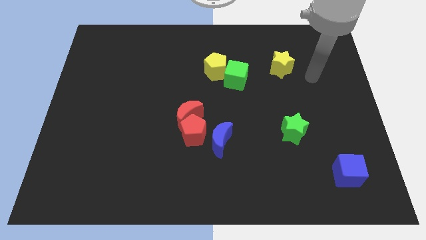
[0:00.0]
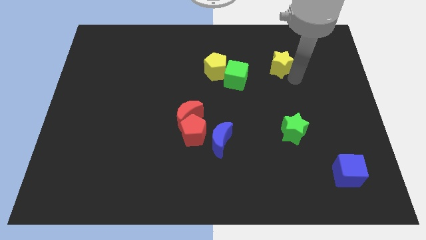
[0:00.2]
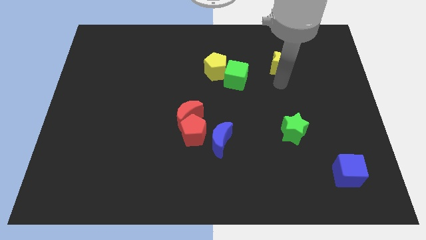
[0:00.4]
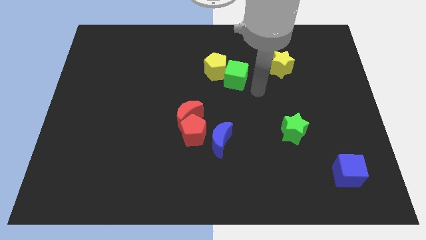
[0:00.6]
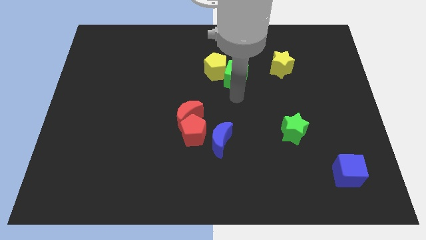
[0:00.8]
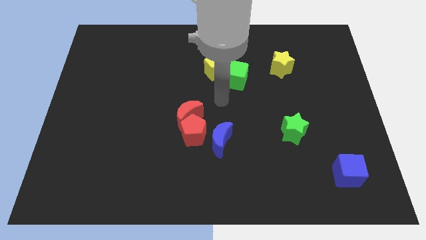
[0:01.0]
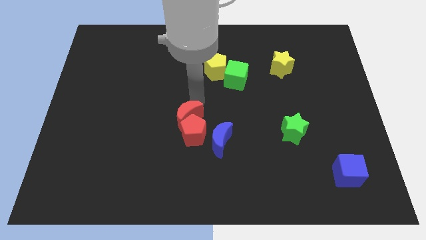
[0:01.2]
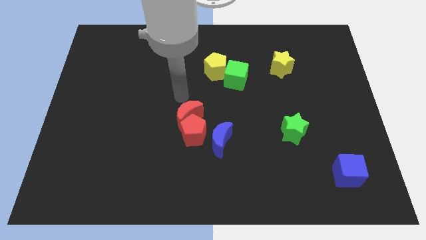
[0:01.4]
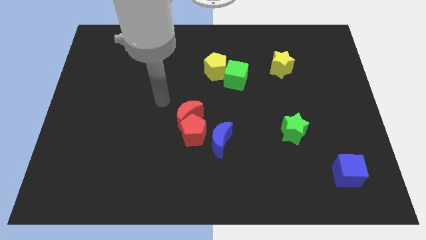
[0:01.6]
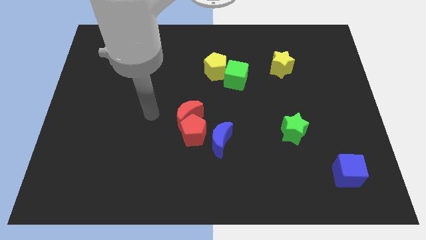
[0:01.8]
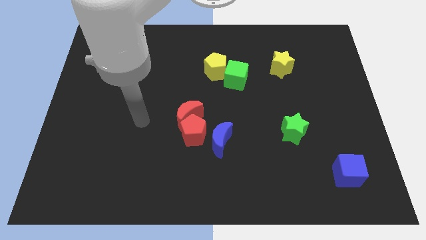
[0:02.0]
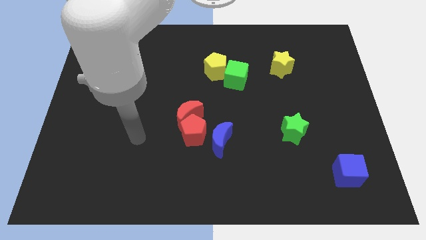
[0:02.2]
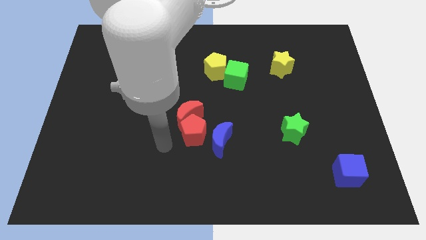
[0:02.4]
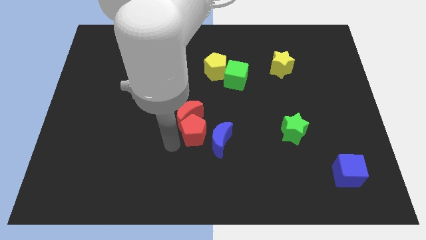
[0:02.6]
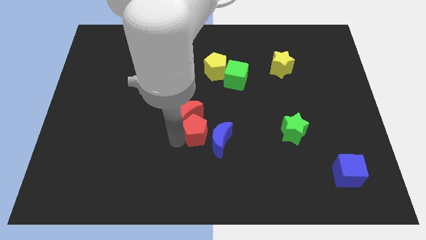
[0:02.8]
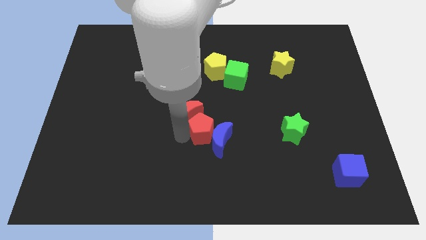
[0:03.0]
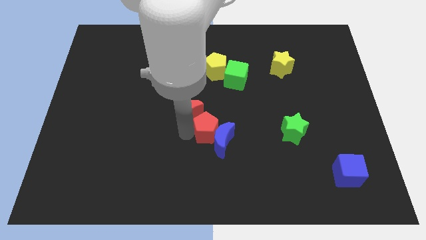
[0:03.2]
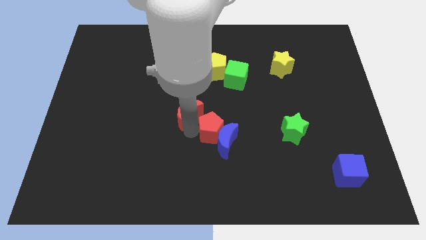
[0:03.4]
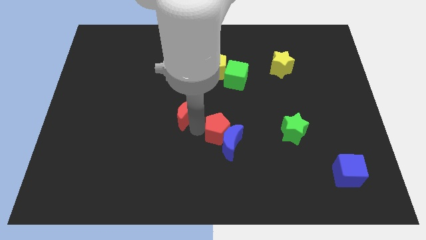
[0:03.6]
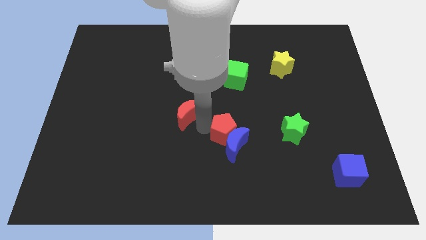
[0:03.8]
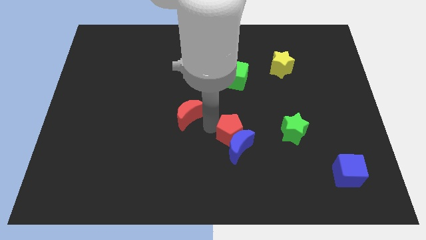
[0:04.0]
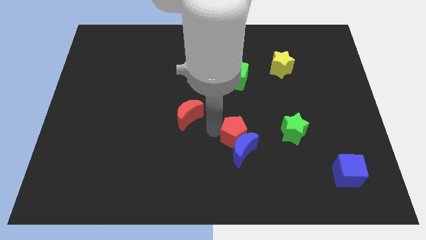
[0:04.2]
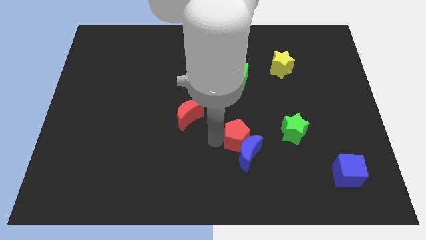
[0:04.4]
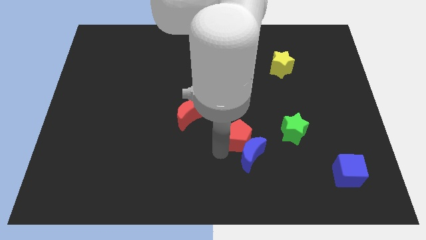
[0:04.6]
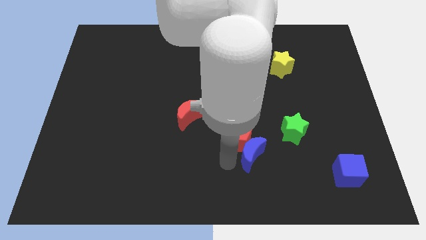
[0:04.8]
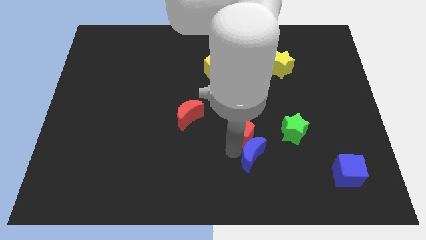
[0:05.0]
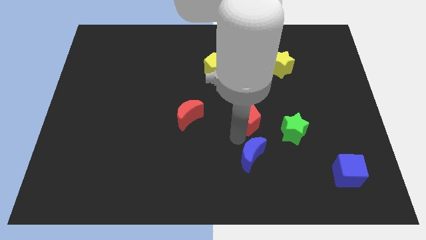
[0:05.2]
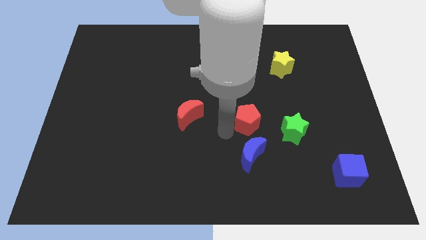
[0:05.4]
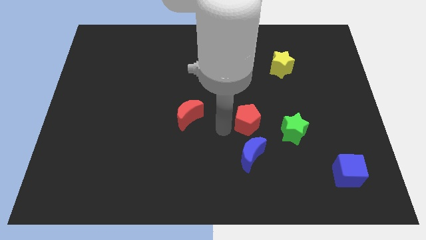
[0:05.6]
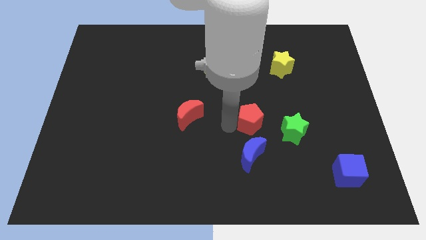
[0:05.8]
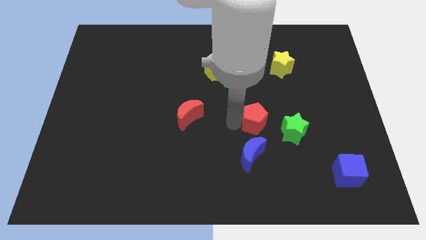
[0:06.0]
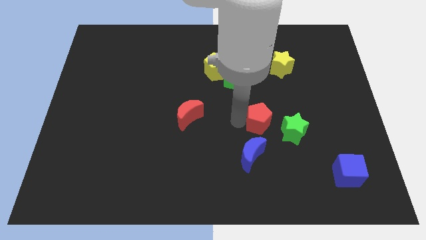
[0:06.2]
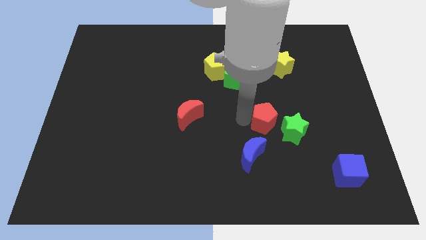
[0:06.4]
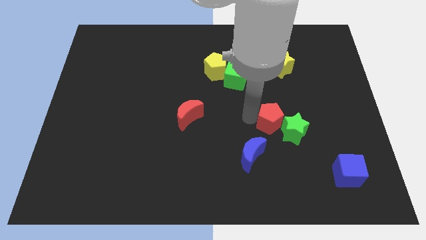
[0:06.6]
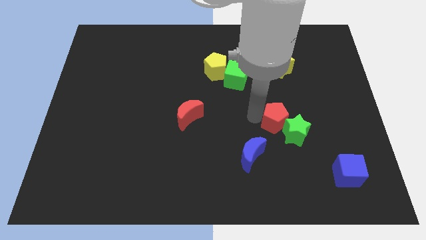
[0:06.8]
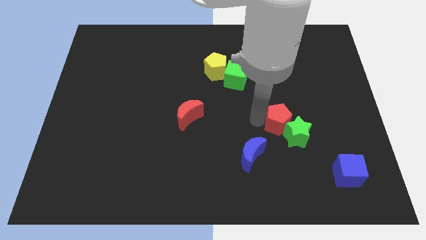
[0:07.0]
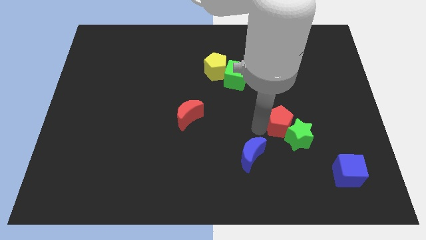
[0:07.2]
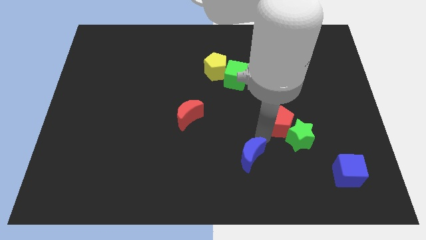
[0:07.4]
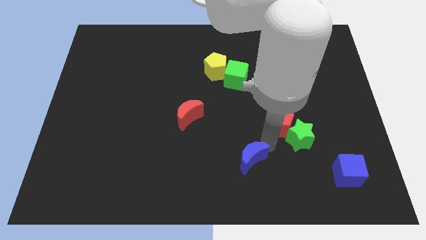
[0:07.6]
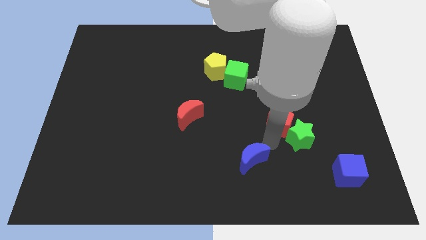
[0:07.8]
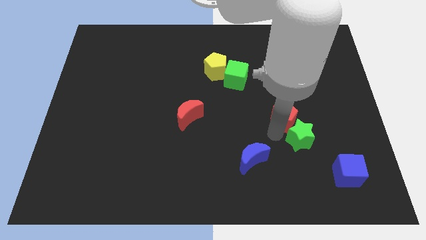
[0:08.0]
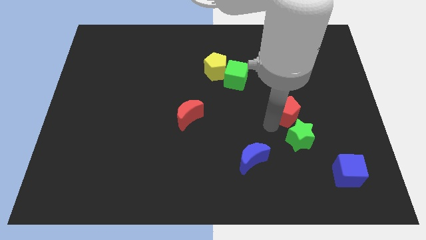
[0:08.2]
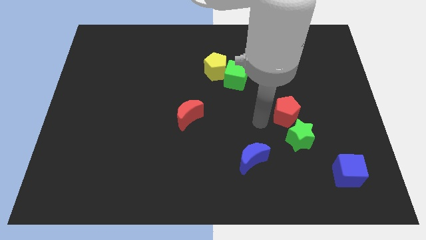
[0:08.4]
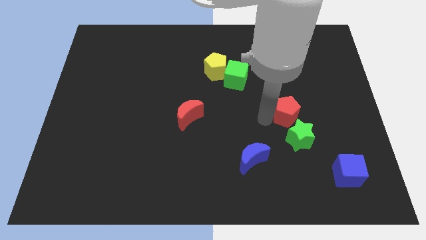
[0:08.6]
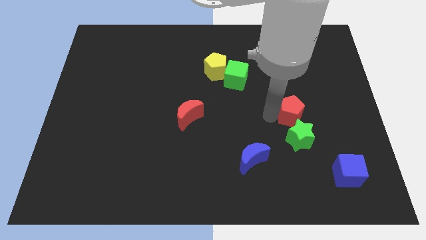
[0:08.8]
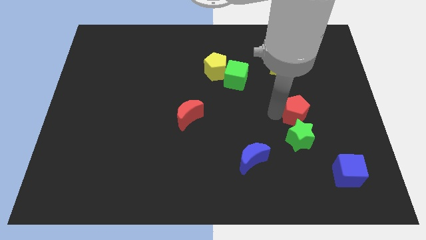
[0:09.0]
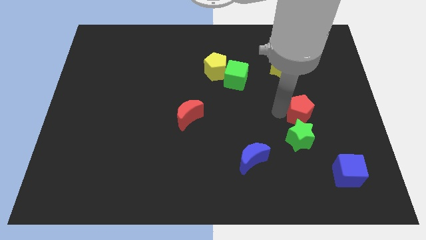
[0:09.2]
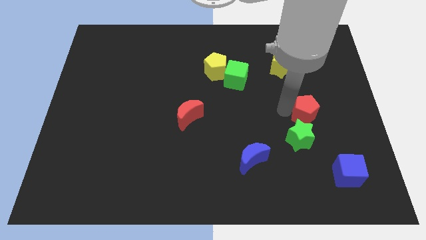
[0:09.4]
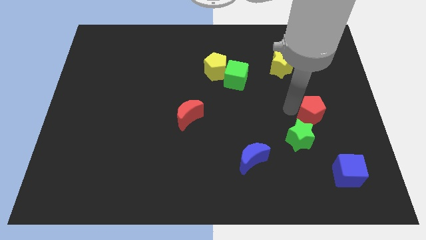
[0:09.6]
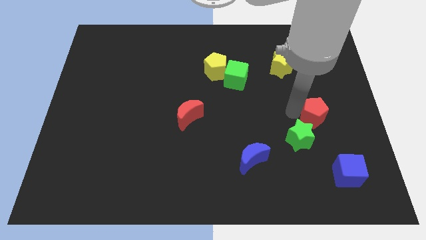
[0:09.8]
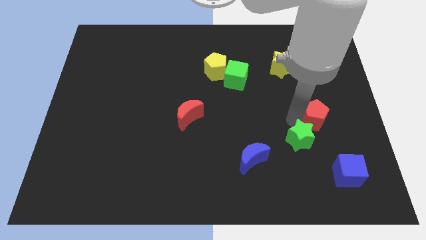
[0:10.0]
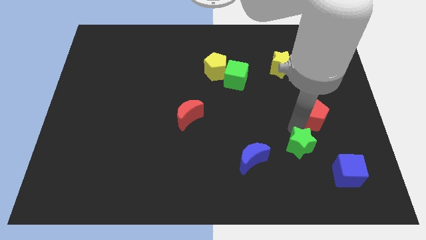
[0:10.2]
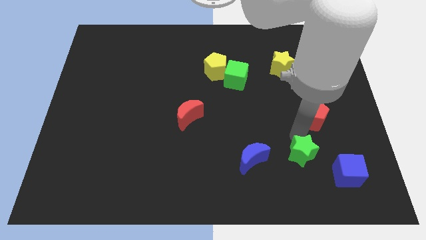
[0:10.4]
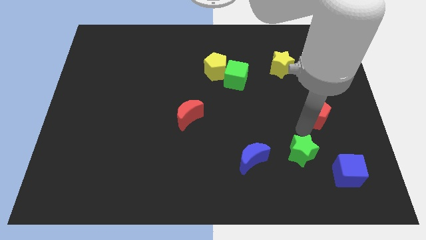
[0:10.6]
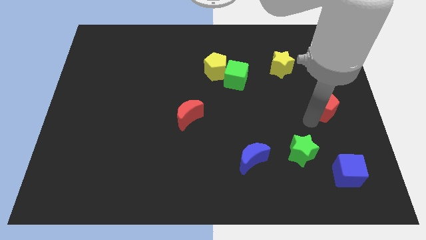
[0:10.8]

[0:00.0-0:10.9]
move the red pentagon to the right side of the board

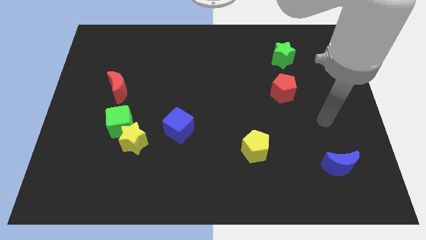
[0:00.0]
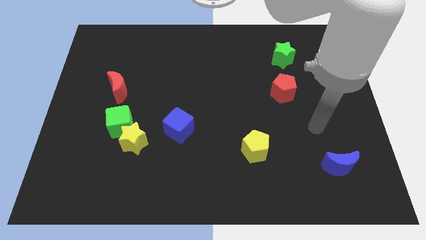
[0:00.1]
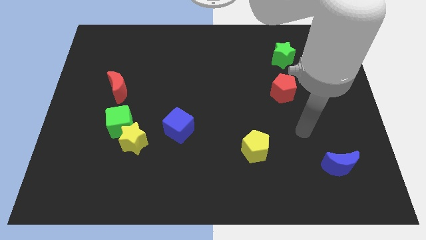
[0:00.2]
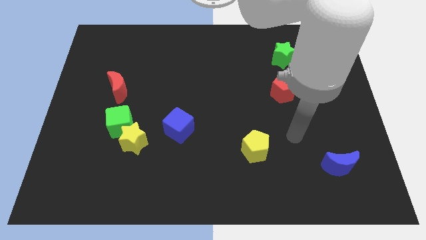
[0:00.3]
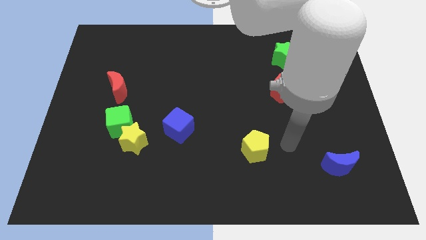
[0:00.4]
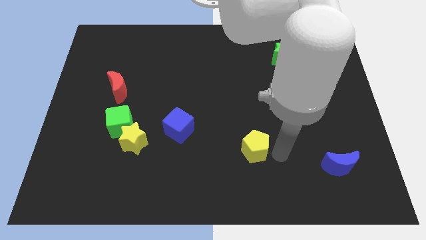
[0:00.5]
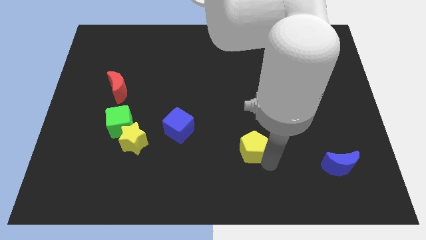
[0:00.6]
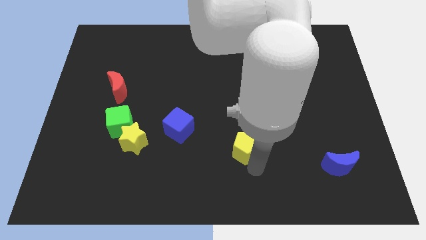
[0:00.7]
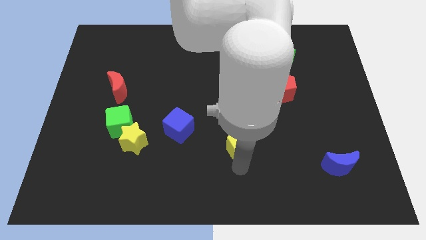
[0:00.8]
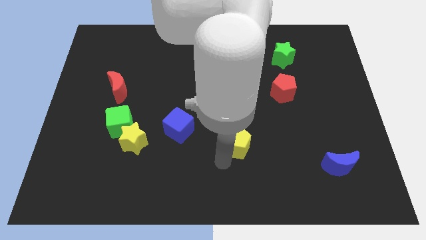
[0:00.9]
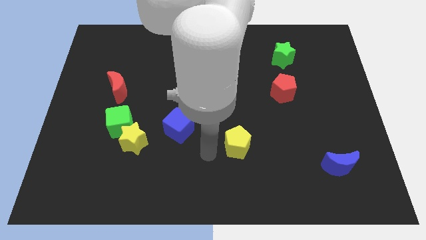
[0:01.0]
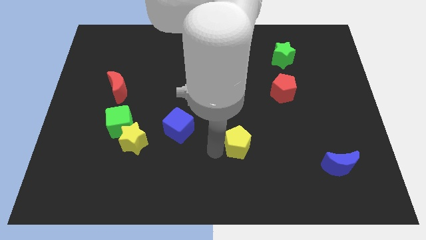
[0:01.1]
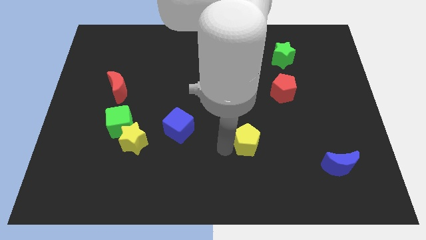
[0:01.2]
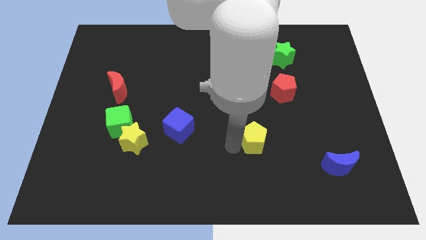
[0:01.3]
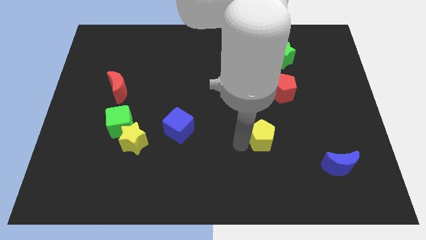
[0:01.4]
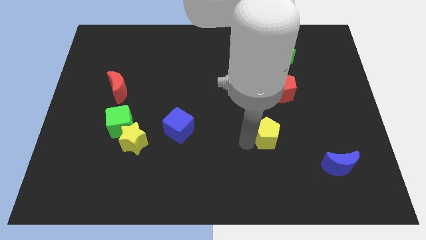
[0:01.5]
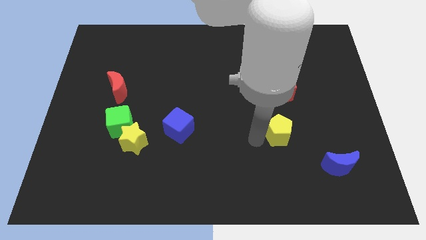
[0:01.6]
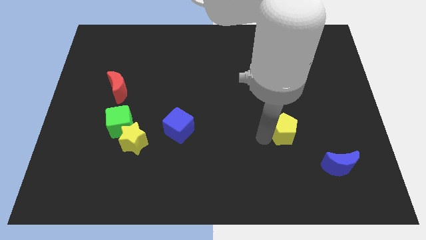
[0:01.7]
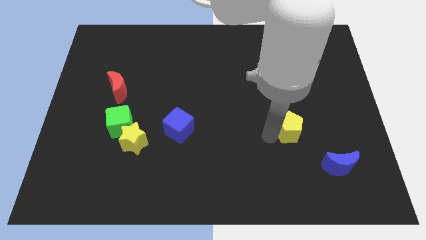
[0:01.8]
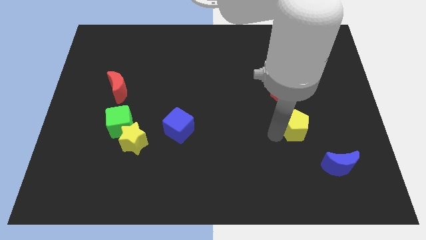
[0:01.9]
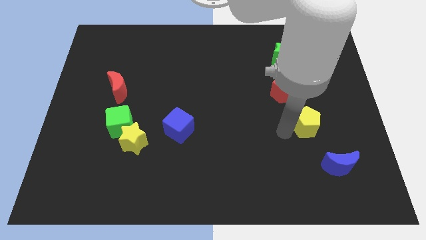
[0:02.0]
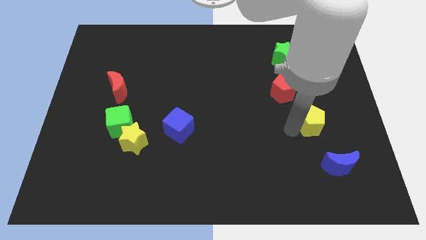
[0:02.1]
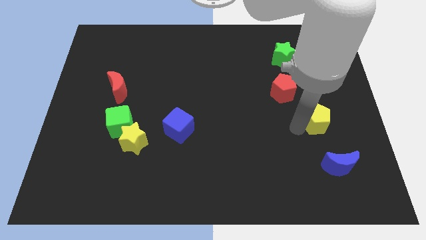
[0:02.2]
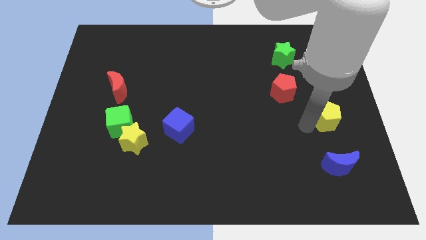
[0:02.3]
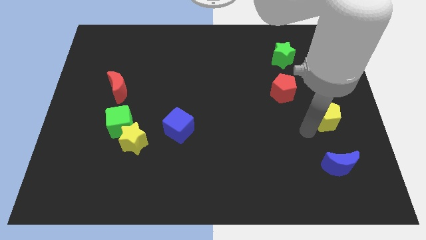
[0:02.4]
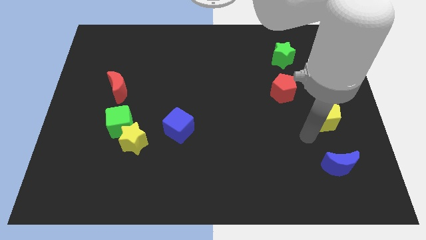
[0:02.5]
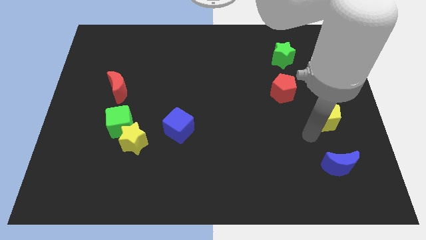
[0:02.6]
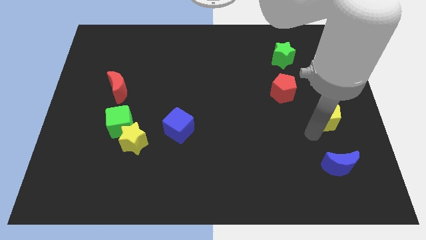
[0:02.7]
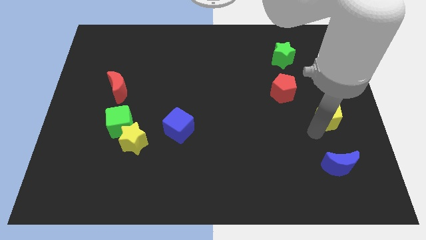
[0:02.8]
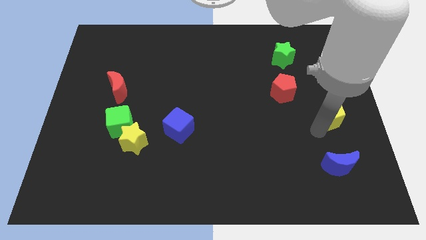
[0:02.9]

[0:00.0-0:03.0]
slide the yellow pentagon to the right side of the board

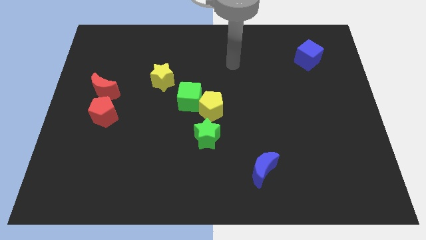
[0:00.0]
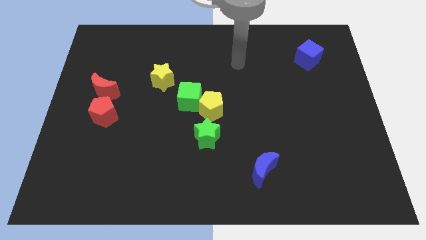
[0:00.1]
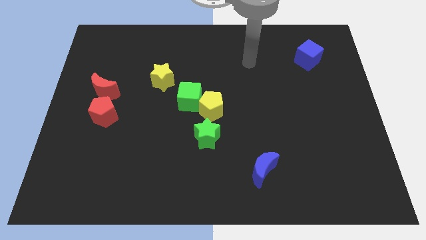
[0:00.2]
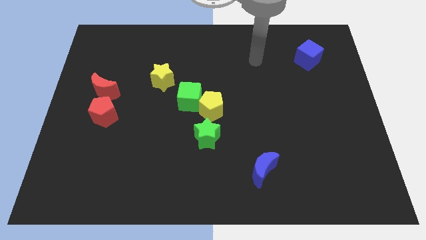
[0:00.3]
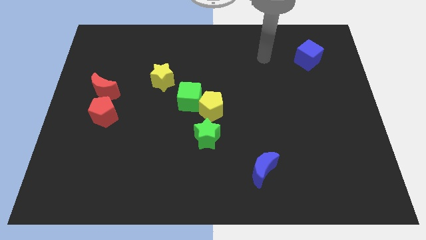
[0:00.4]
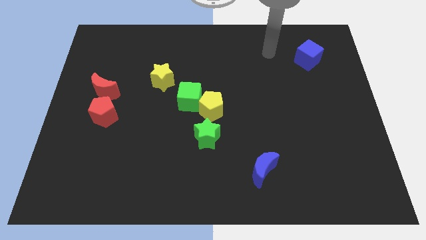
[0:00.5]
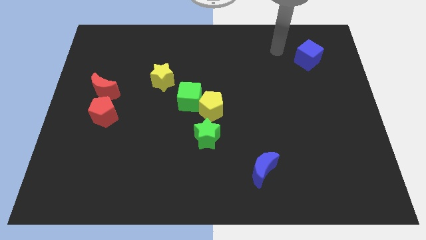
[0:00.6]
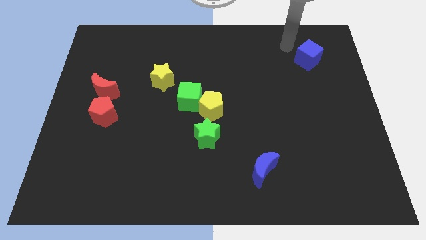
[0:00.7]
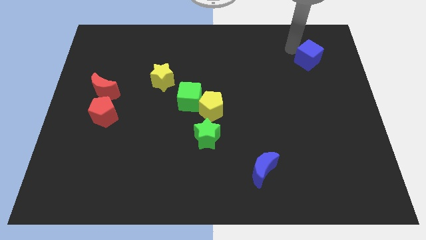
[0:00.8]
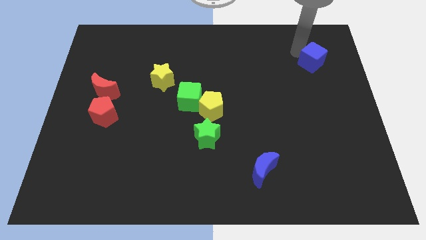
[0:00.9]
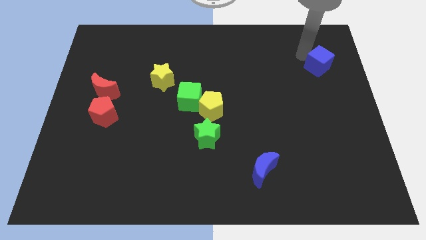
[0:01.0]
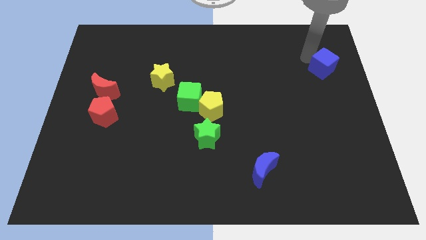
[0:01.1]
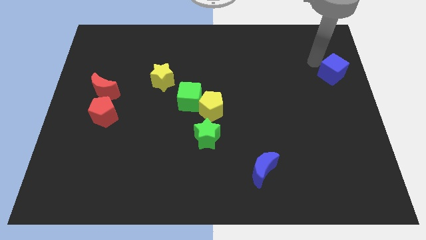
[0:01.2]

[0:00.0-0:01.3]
move the blue cube to the center right
